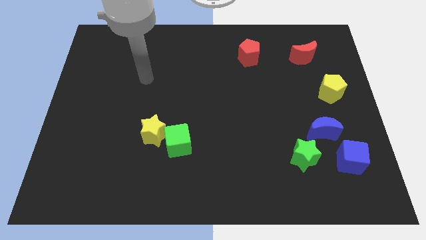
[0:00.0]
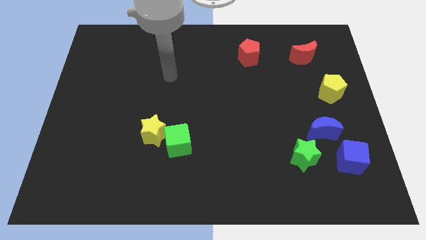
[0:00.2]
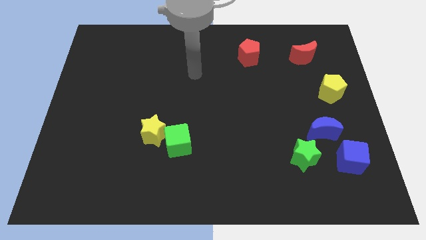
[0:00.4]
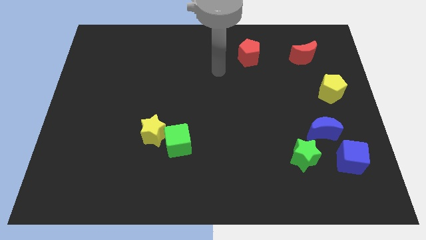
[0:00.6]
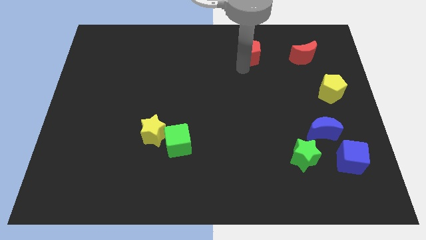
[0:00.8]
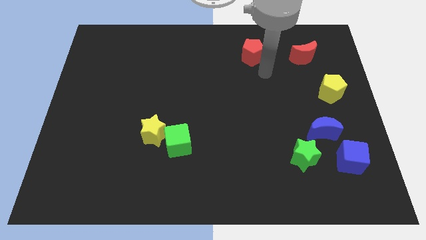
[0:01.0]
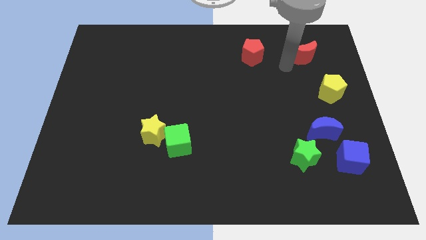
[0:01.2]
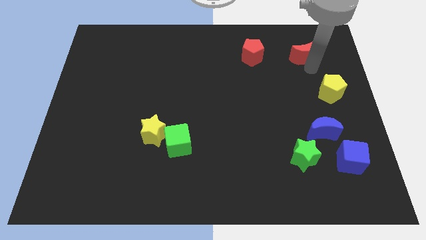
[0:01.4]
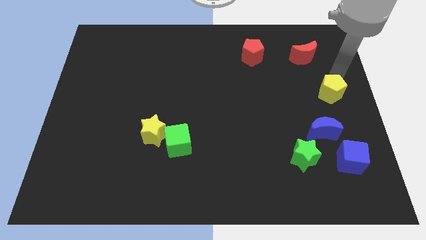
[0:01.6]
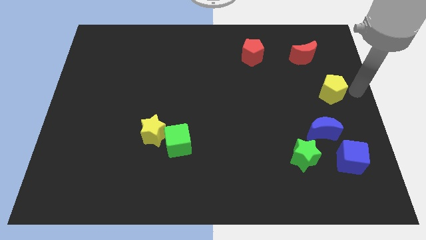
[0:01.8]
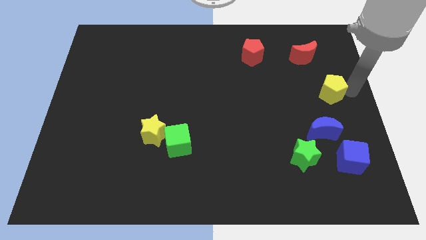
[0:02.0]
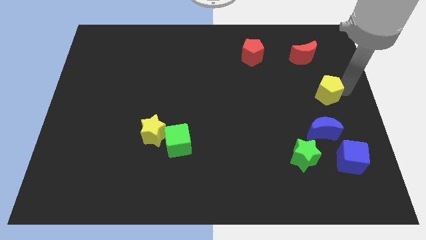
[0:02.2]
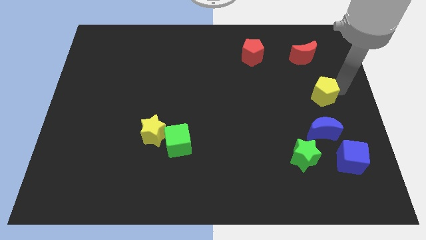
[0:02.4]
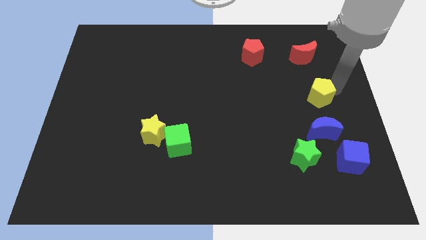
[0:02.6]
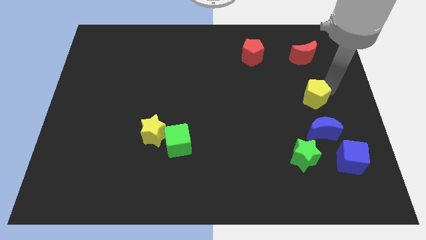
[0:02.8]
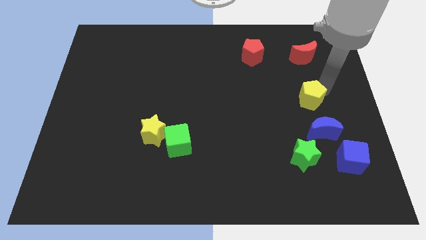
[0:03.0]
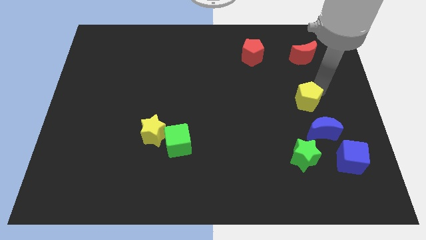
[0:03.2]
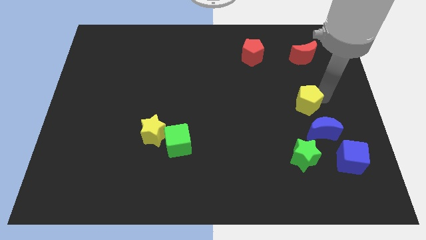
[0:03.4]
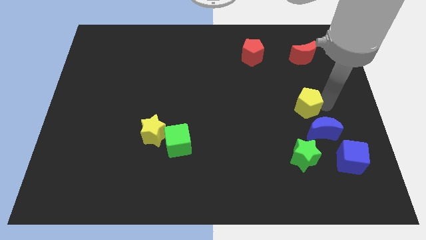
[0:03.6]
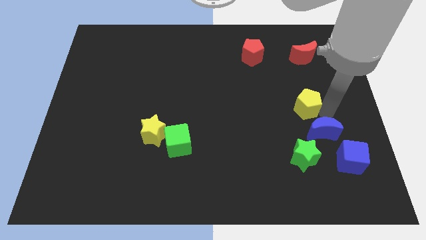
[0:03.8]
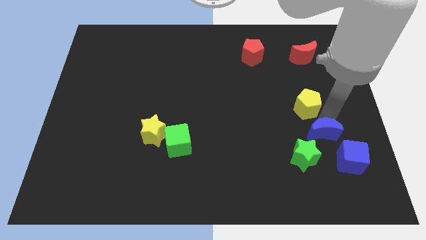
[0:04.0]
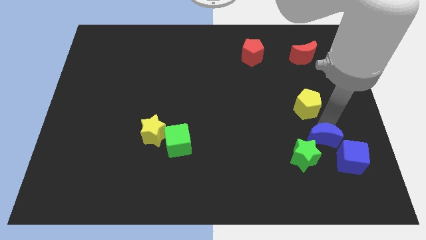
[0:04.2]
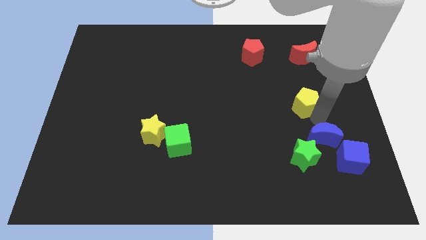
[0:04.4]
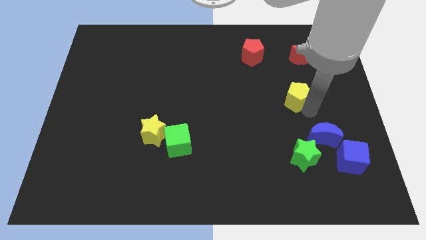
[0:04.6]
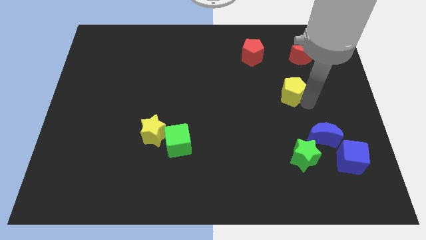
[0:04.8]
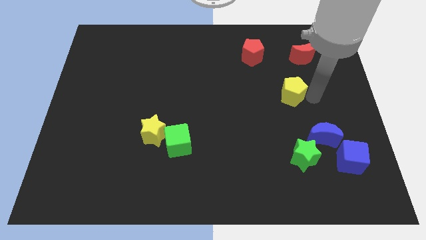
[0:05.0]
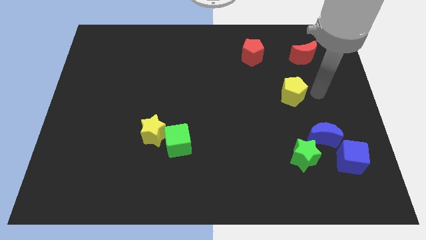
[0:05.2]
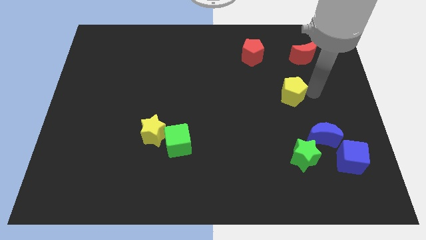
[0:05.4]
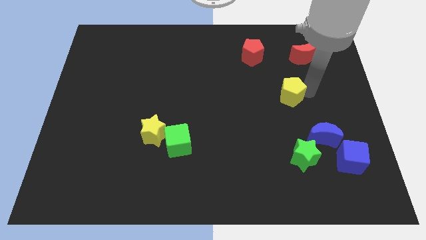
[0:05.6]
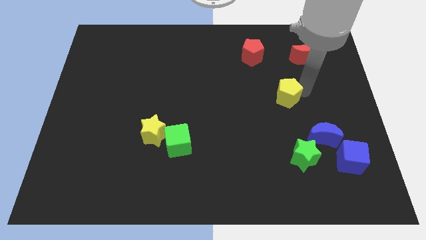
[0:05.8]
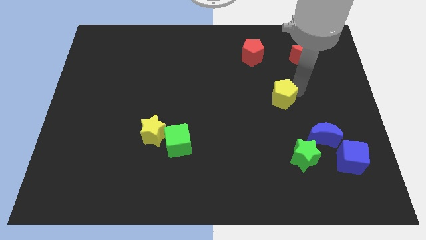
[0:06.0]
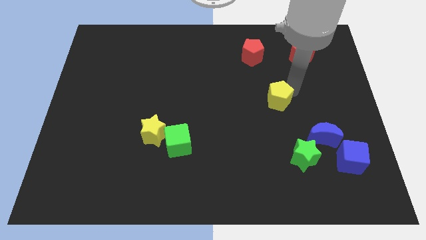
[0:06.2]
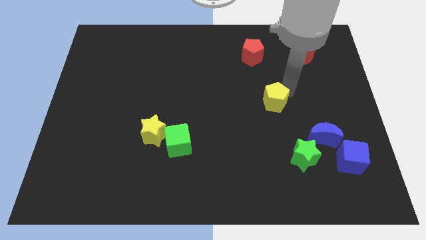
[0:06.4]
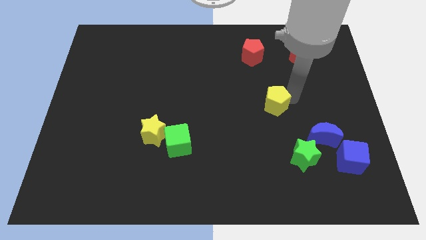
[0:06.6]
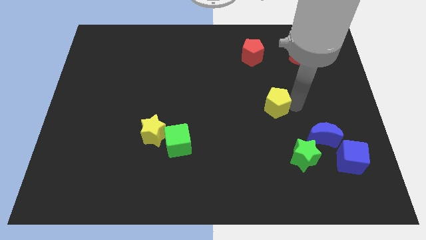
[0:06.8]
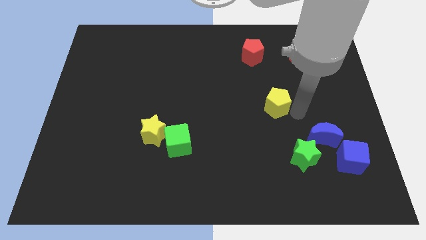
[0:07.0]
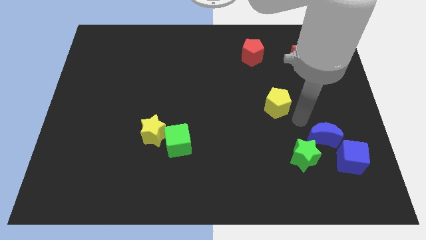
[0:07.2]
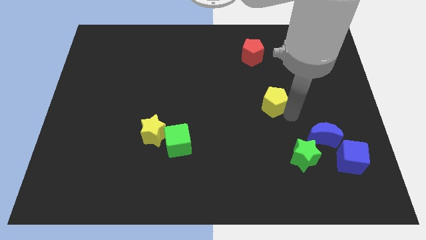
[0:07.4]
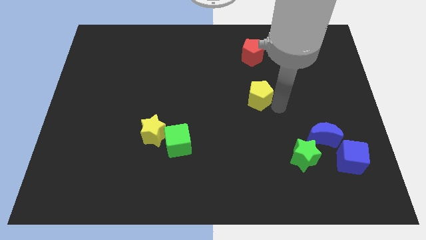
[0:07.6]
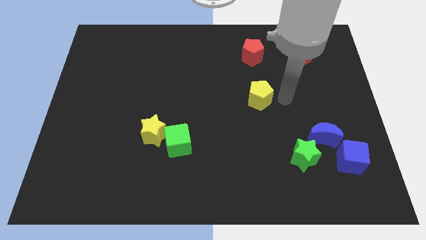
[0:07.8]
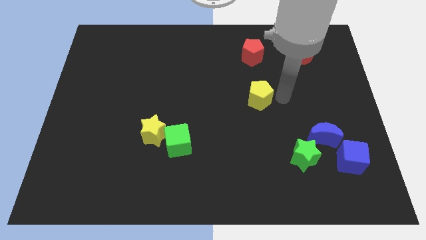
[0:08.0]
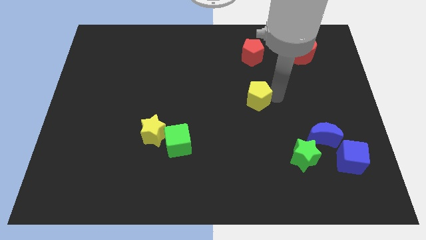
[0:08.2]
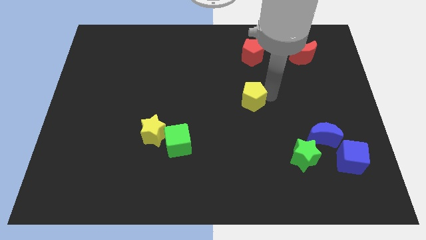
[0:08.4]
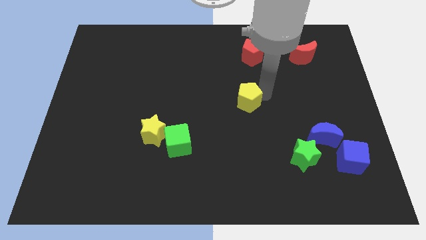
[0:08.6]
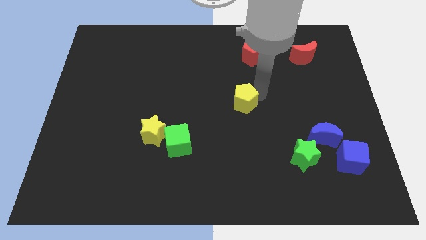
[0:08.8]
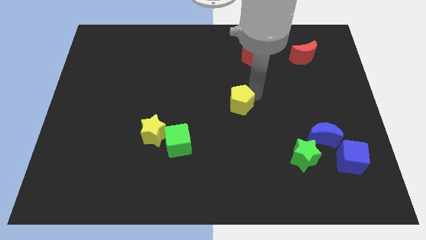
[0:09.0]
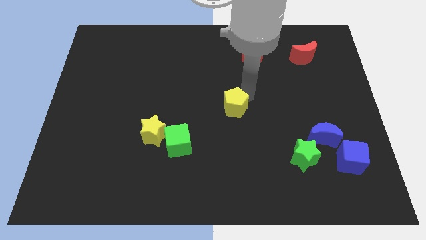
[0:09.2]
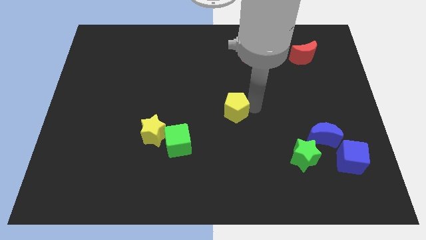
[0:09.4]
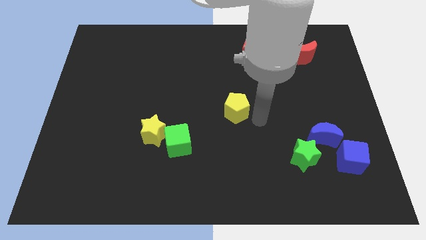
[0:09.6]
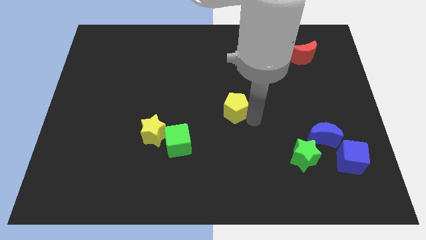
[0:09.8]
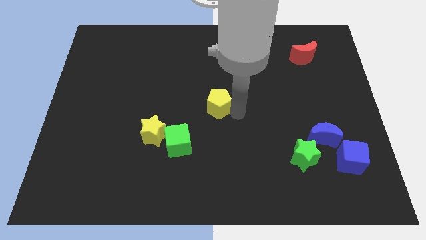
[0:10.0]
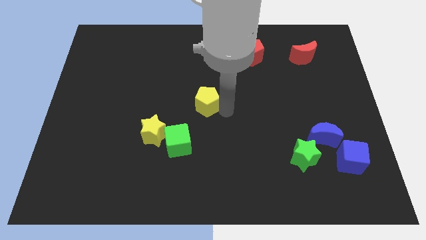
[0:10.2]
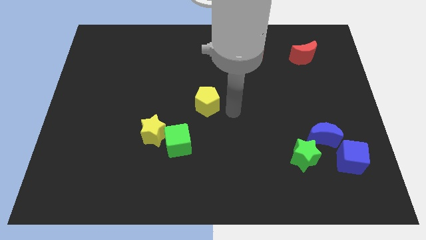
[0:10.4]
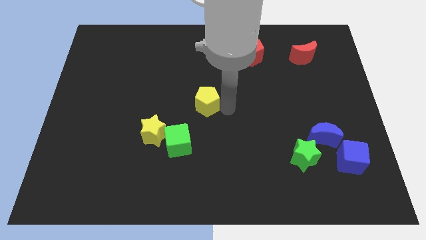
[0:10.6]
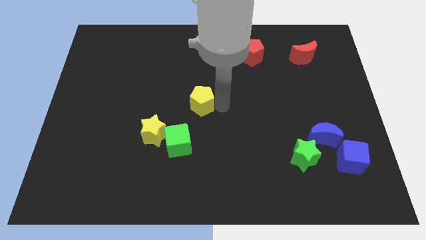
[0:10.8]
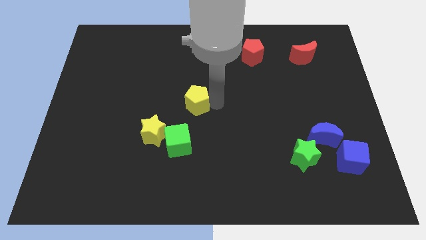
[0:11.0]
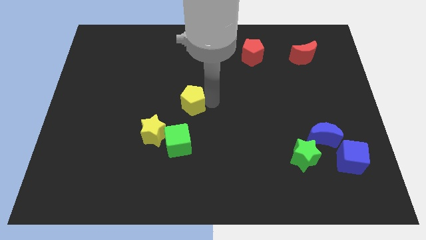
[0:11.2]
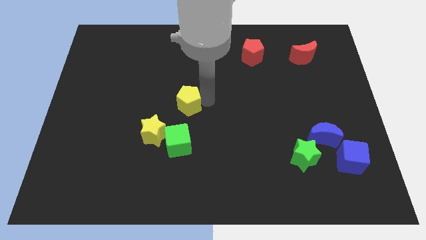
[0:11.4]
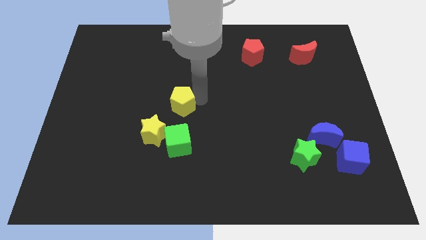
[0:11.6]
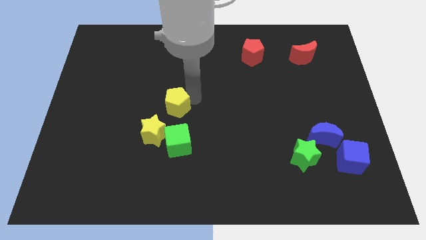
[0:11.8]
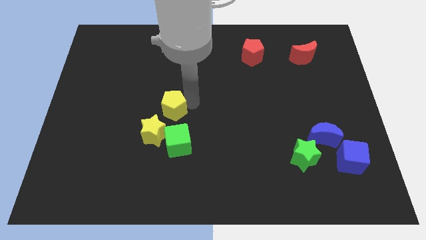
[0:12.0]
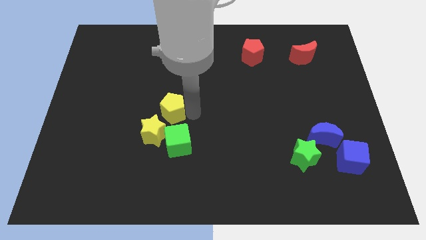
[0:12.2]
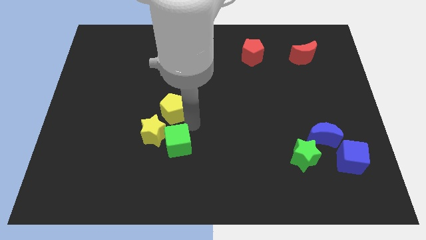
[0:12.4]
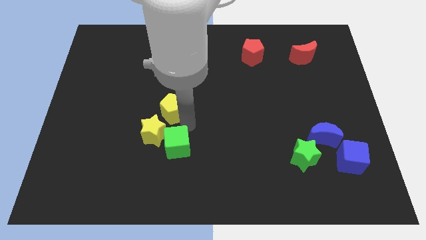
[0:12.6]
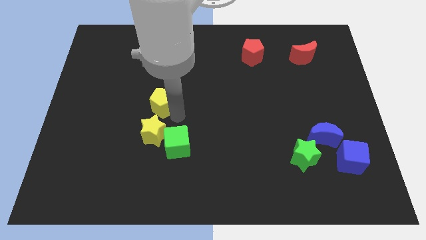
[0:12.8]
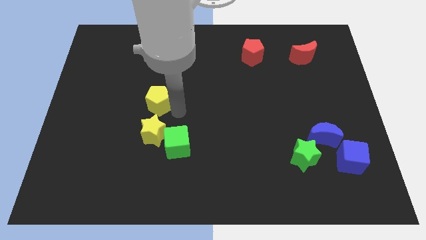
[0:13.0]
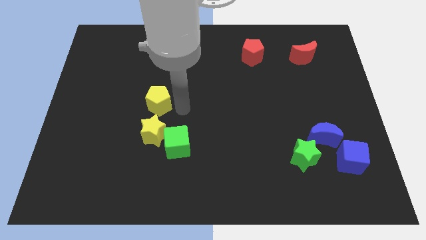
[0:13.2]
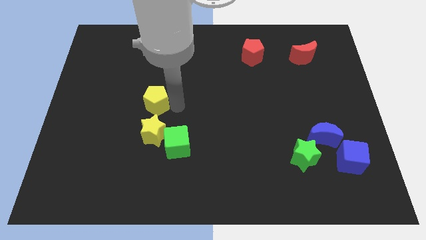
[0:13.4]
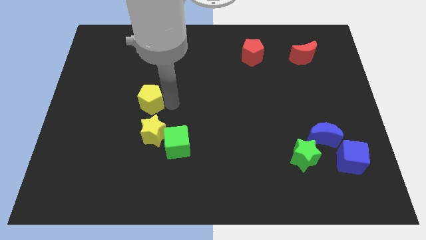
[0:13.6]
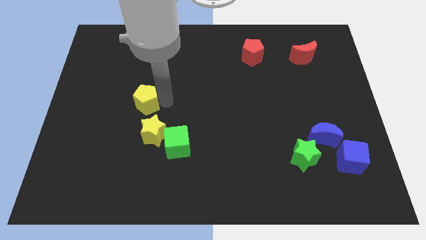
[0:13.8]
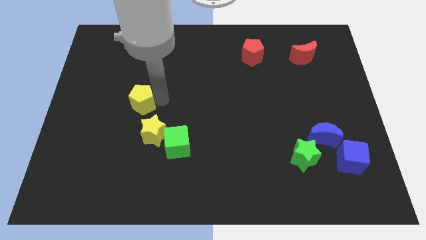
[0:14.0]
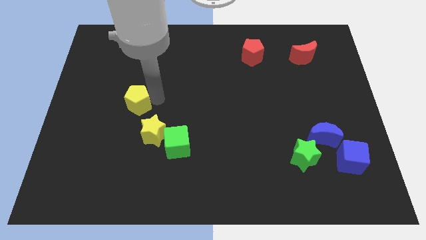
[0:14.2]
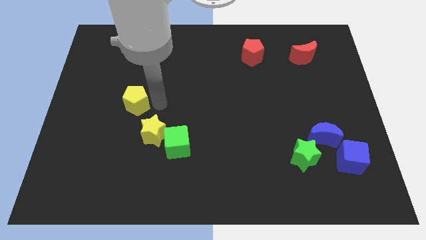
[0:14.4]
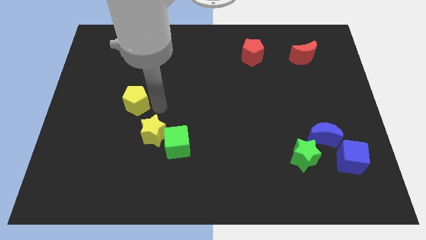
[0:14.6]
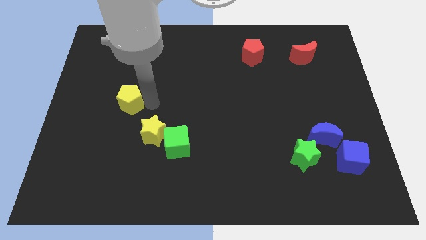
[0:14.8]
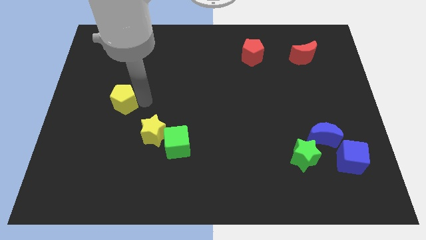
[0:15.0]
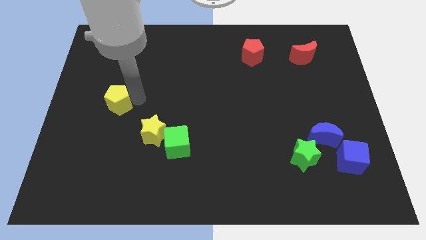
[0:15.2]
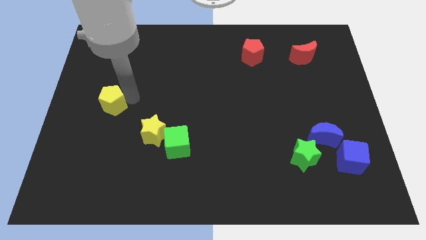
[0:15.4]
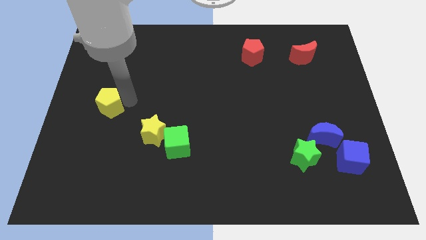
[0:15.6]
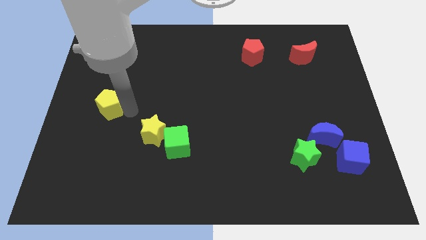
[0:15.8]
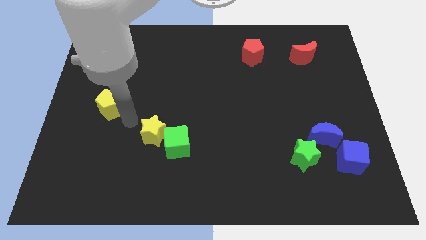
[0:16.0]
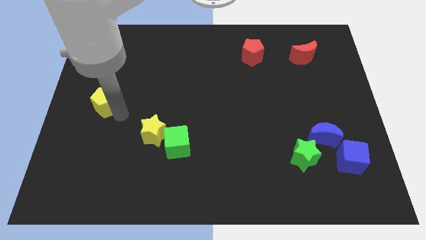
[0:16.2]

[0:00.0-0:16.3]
slide the yellow pentagon to the left side of the board
